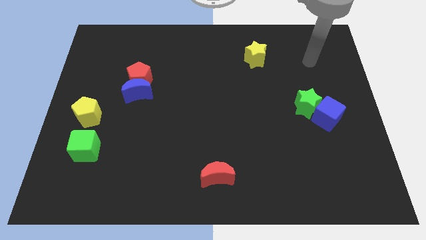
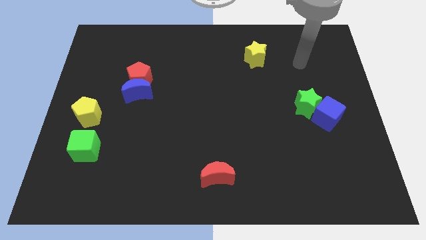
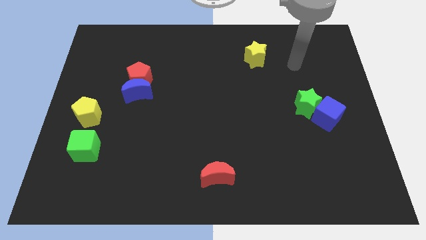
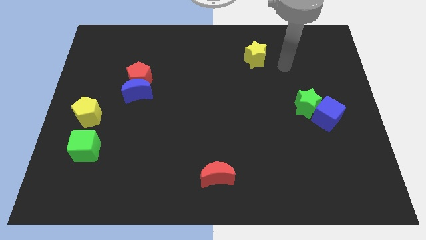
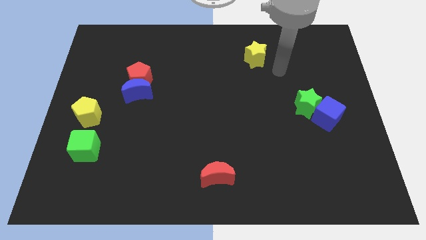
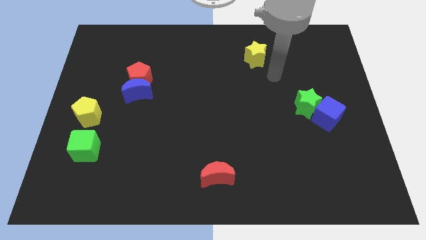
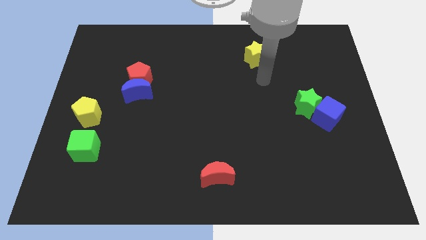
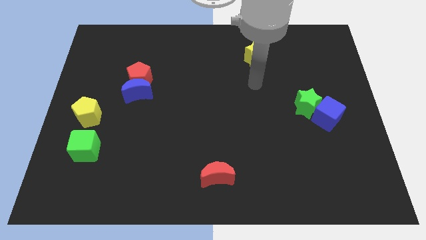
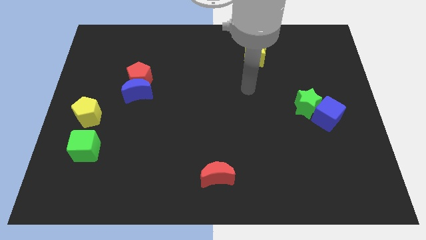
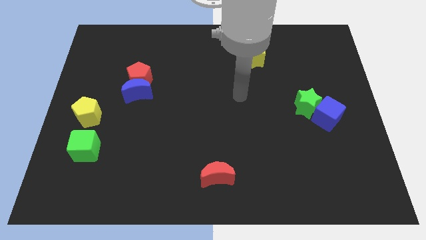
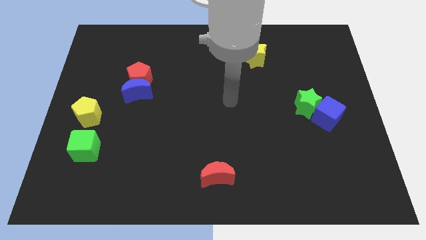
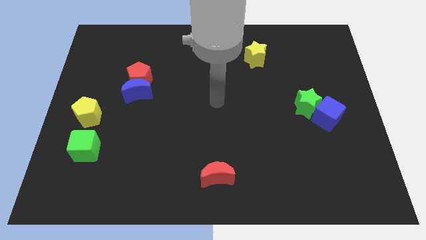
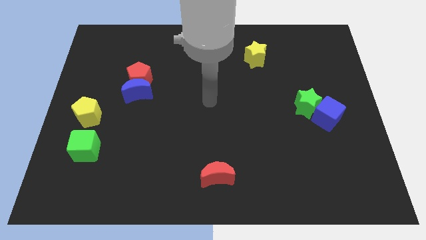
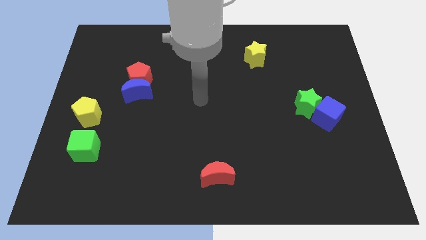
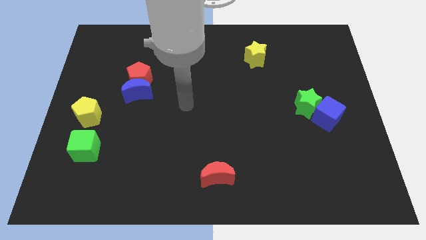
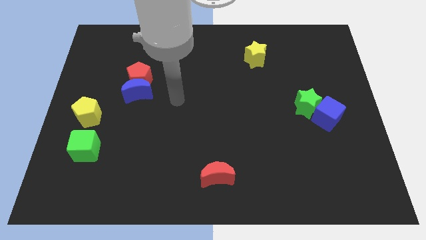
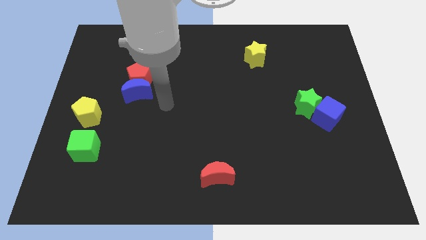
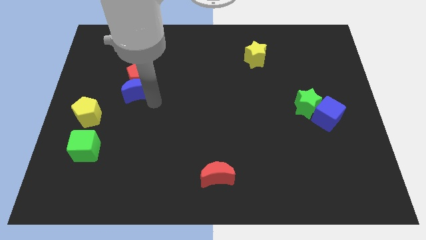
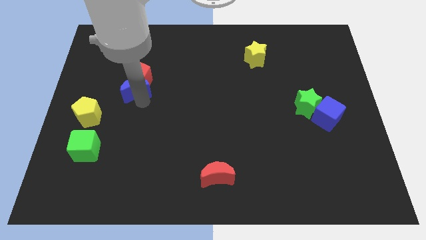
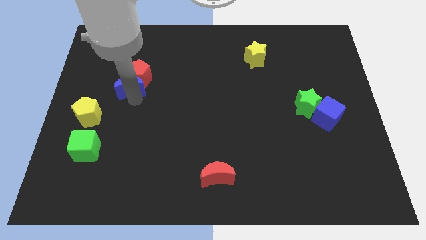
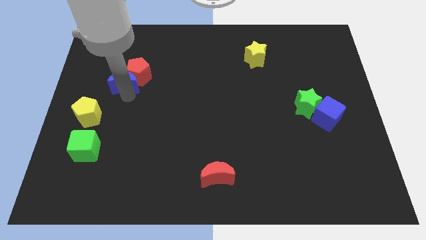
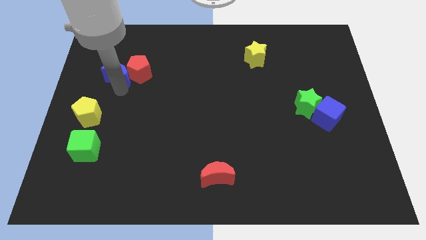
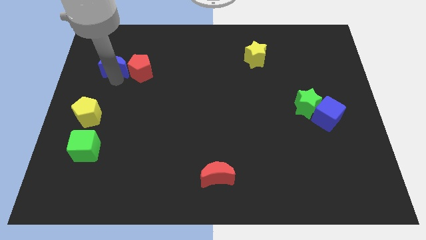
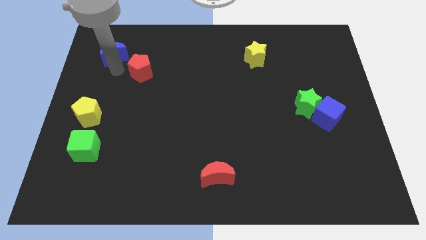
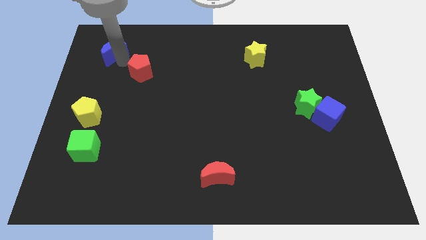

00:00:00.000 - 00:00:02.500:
pull the red pentagon apart from the blue moon

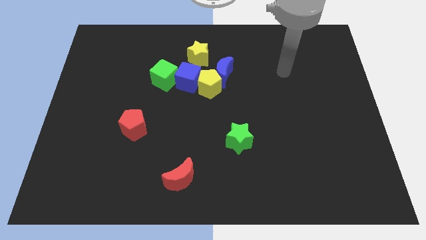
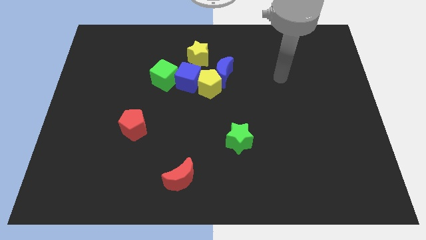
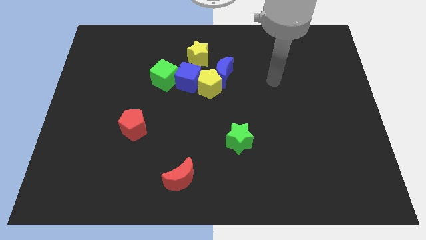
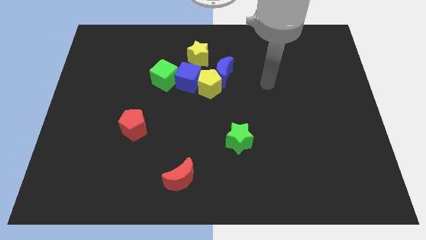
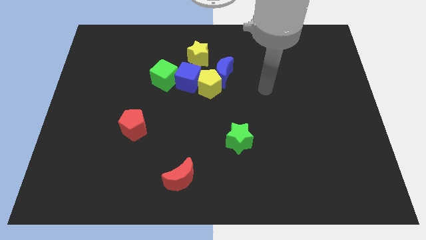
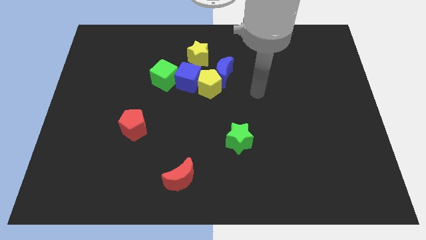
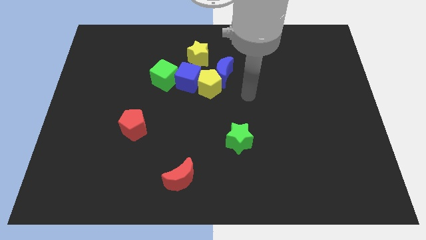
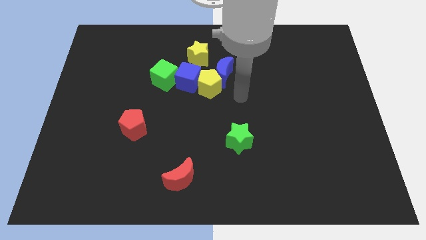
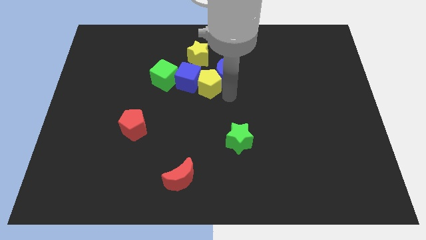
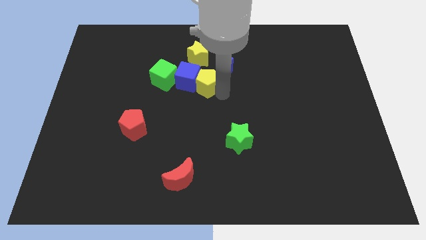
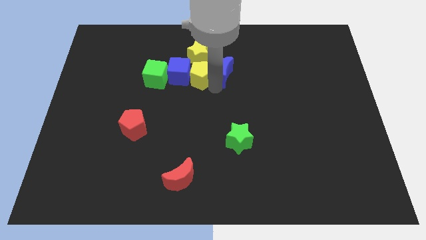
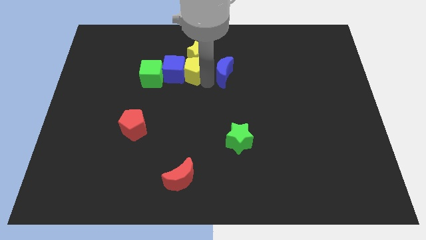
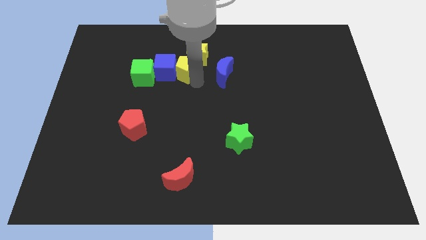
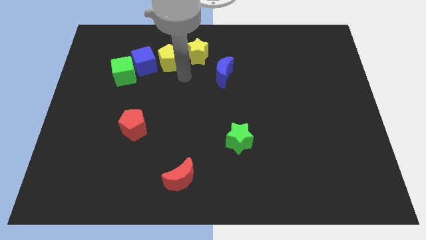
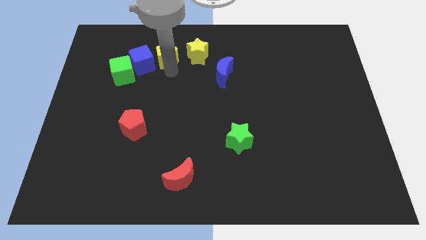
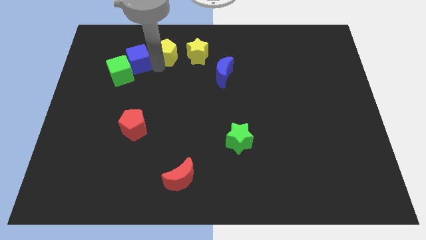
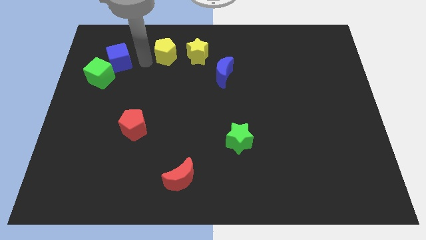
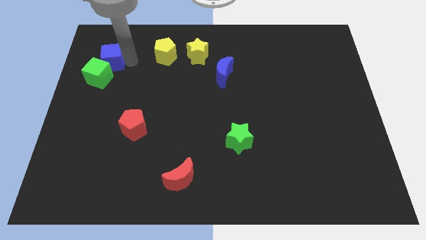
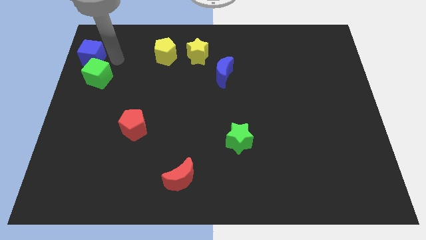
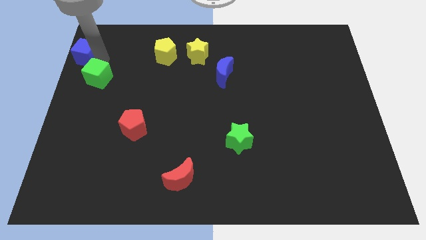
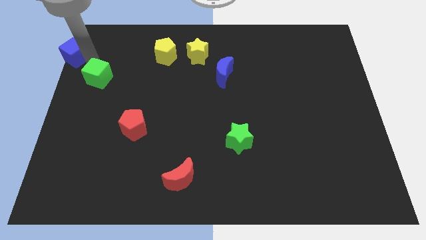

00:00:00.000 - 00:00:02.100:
pull the green cube apart from the blue cube

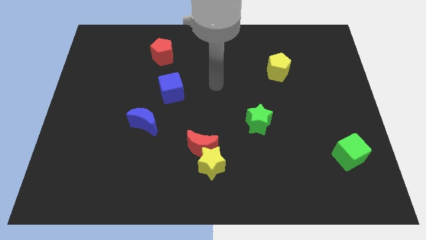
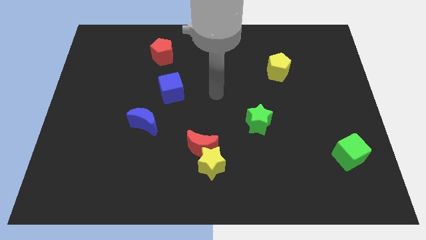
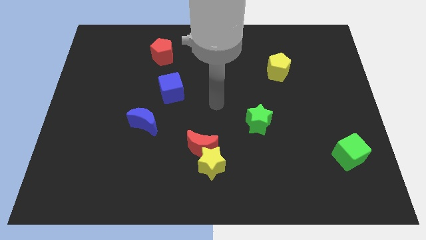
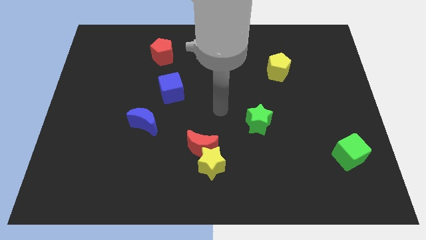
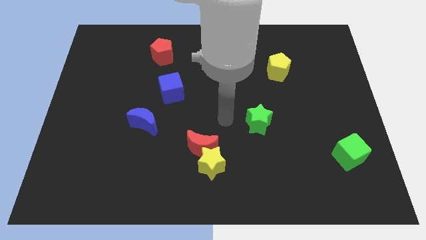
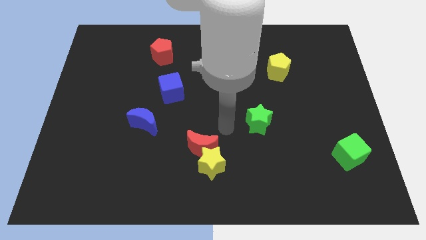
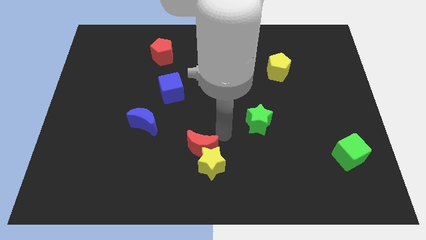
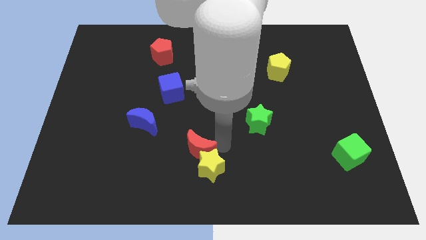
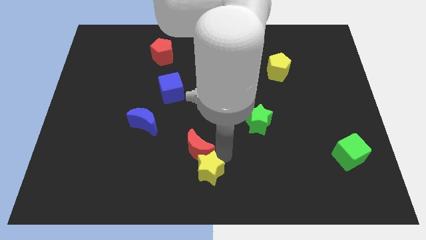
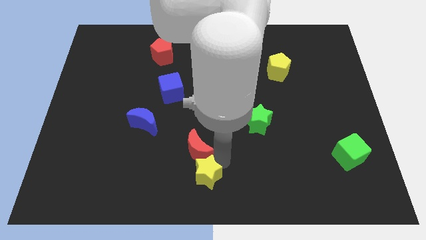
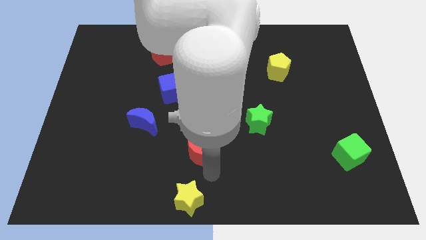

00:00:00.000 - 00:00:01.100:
pull the red moon apart from the yellow star

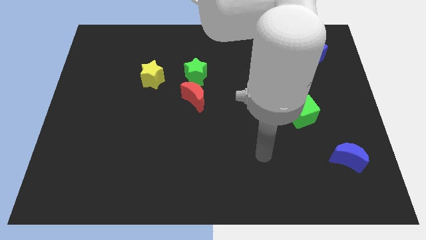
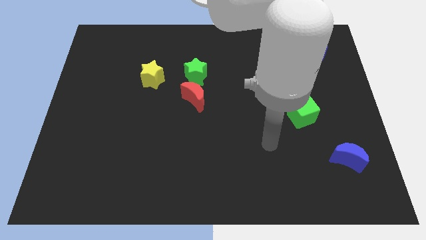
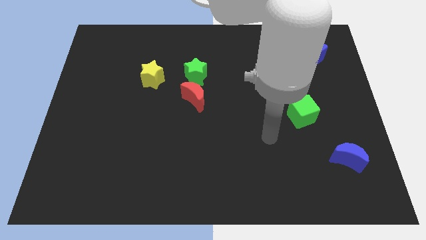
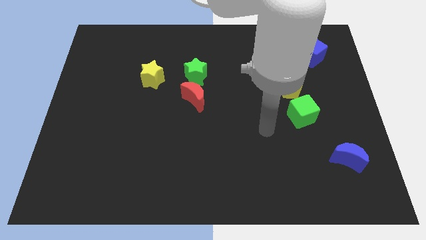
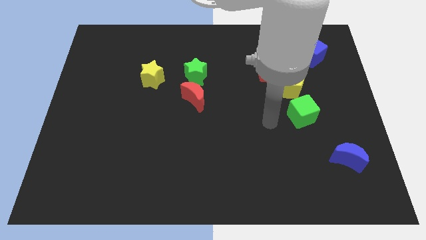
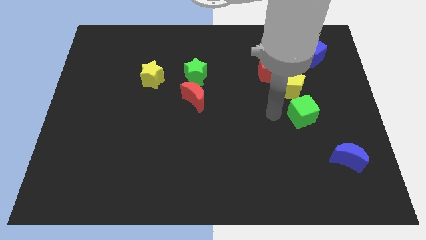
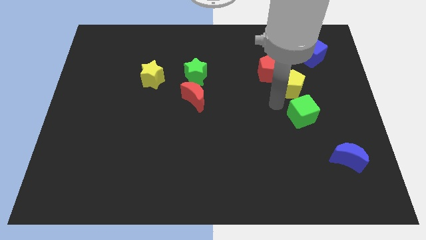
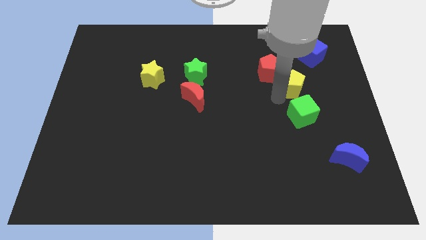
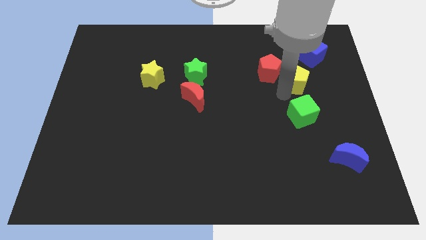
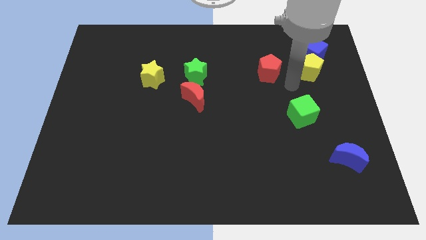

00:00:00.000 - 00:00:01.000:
move the red pentagon away from the yellow pentagon

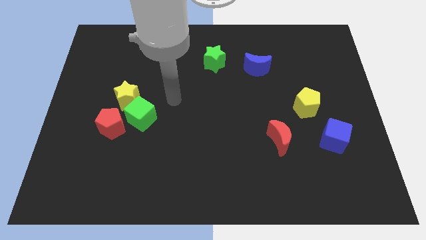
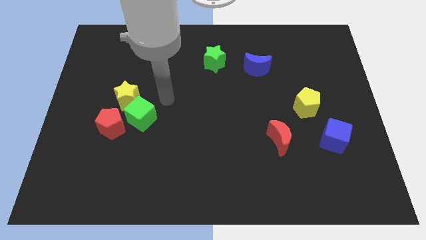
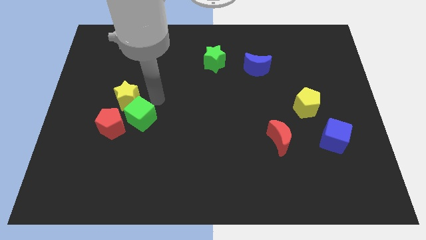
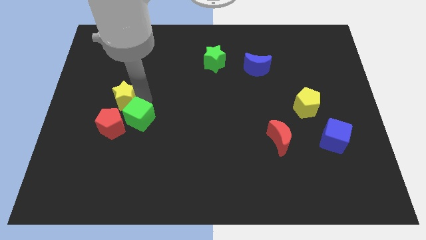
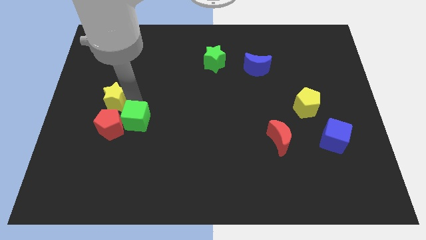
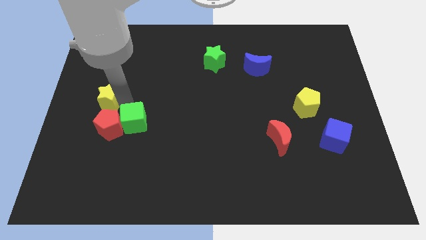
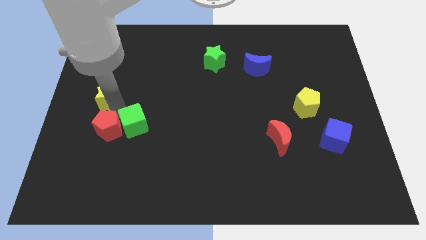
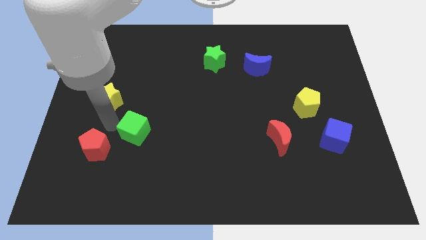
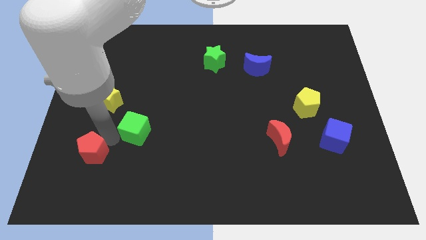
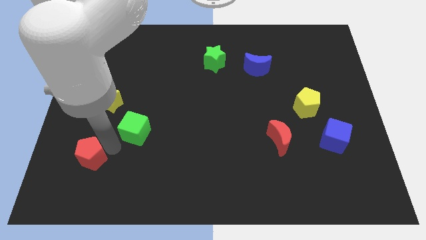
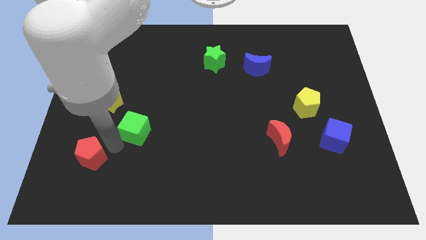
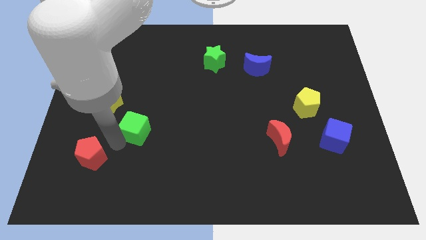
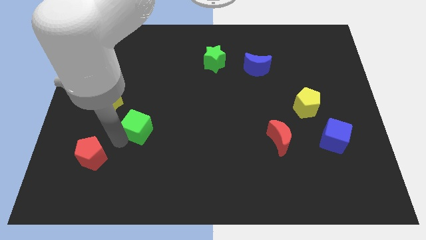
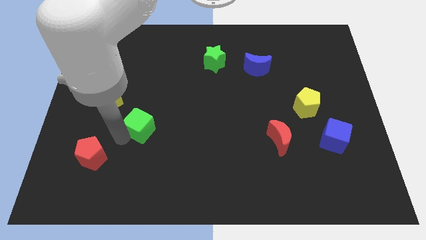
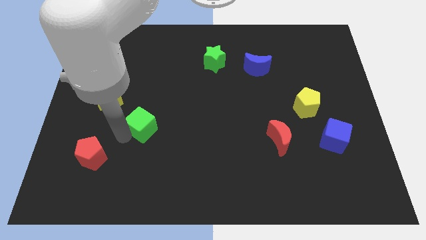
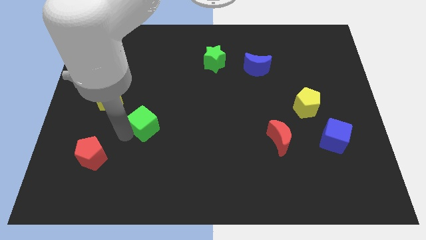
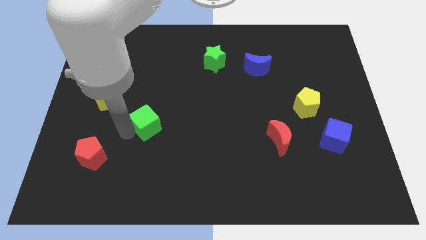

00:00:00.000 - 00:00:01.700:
pull the green cube apart from the yellow star and red pentagon

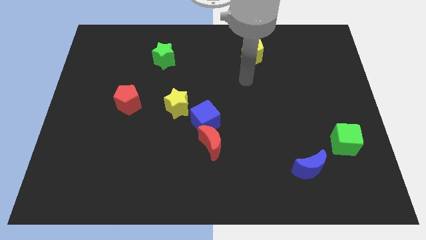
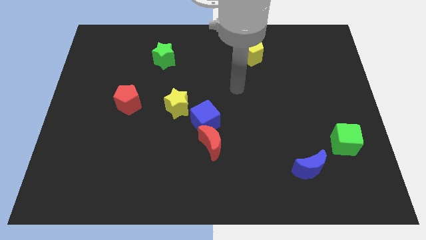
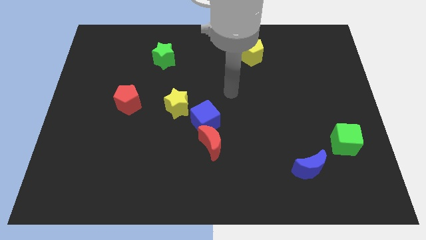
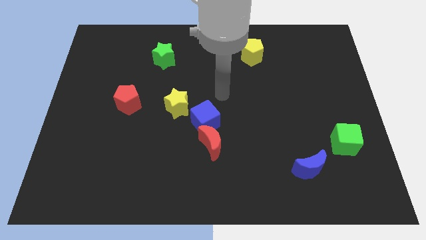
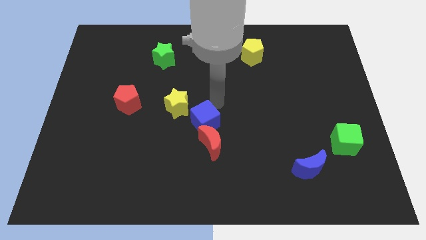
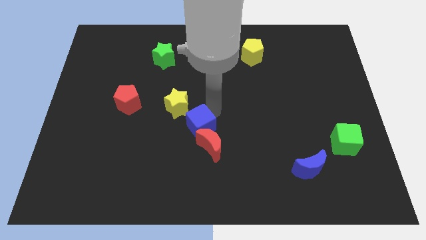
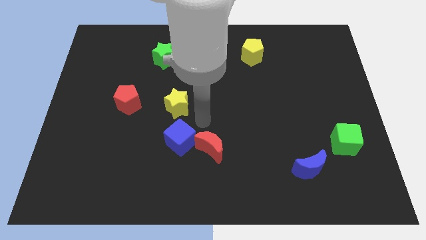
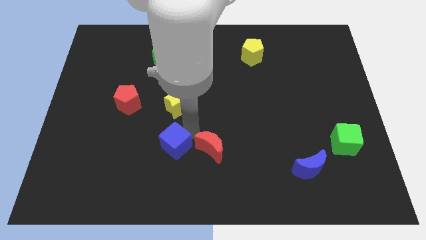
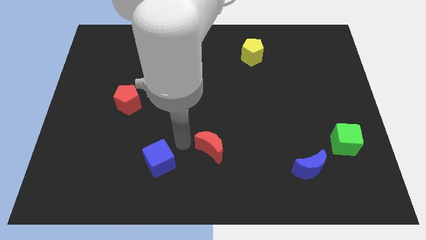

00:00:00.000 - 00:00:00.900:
separate the red moon from the blue cube
